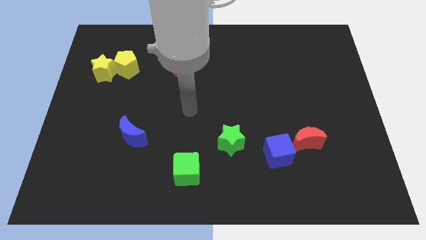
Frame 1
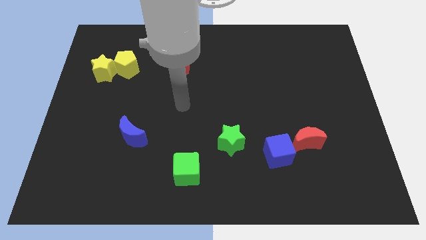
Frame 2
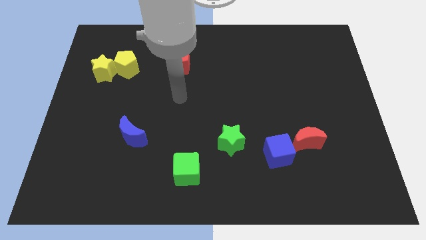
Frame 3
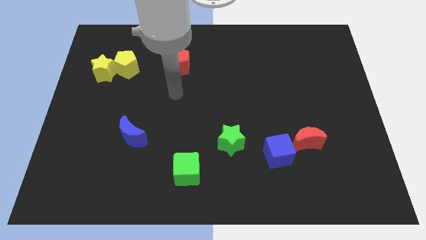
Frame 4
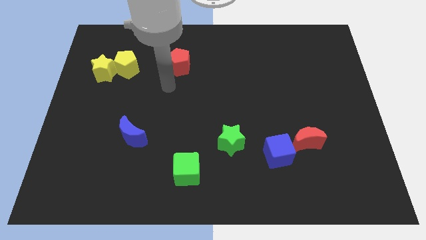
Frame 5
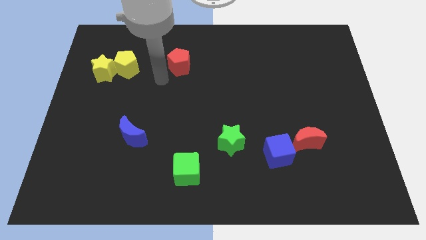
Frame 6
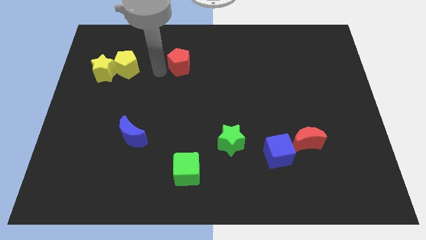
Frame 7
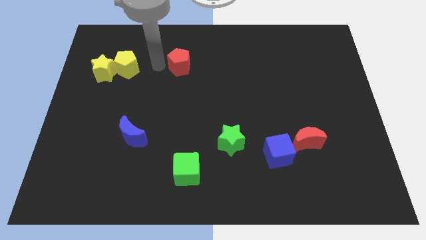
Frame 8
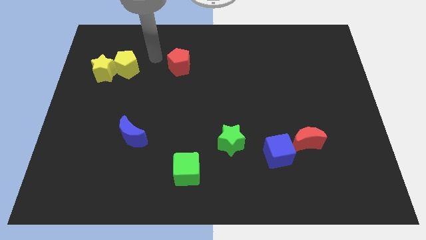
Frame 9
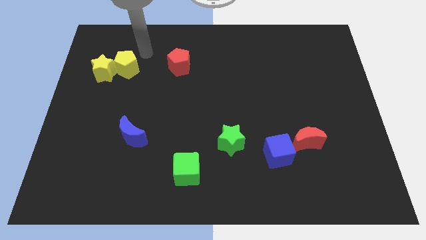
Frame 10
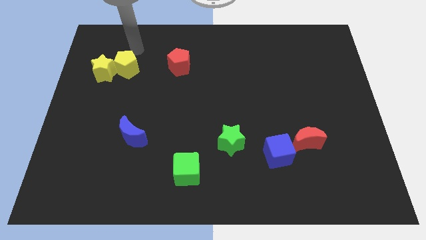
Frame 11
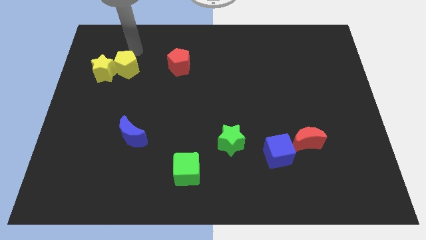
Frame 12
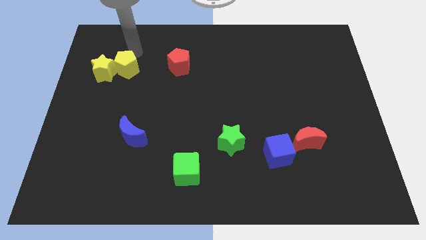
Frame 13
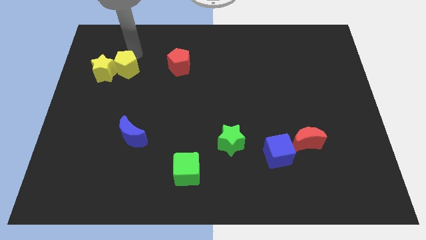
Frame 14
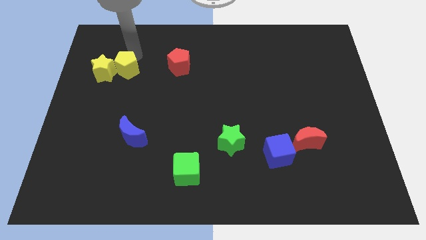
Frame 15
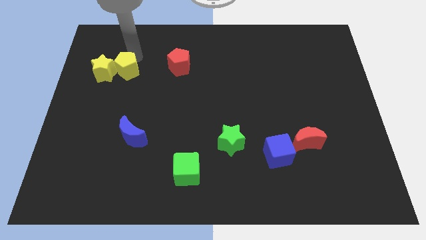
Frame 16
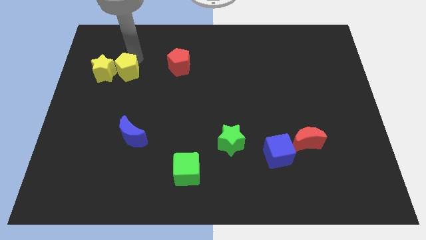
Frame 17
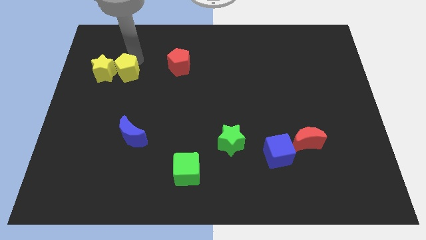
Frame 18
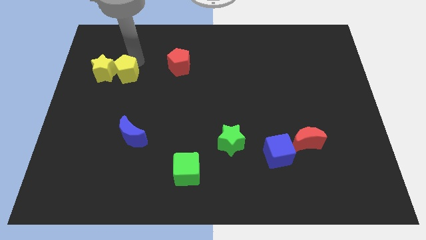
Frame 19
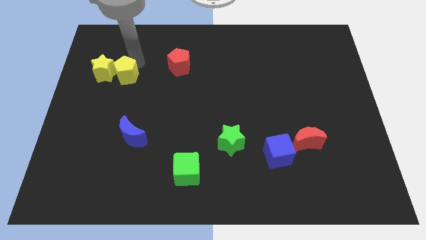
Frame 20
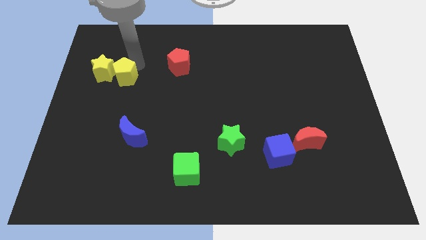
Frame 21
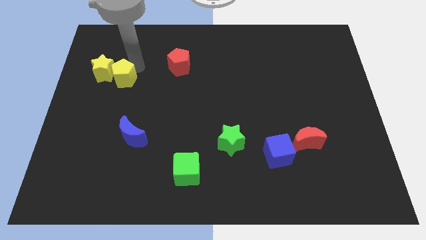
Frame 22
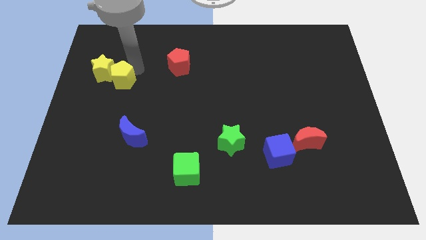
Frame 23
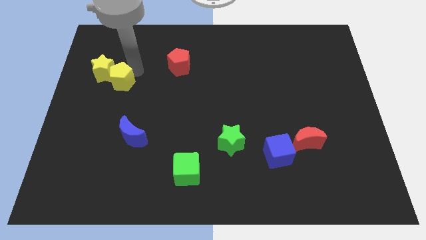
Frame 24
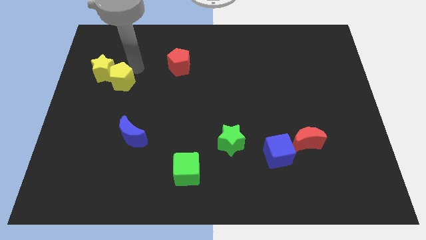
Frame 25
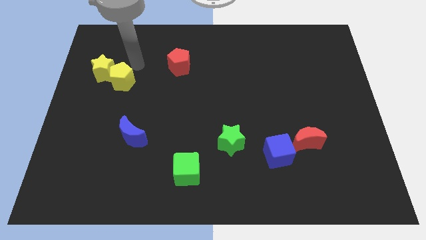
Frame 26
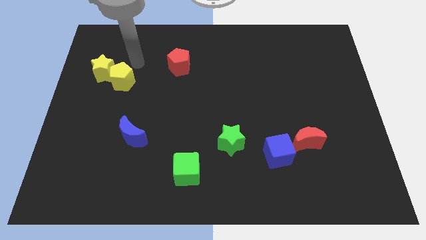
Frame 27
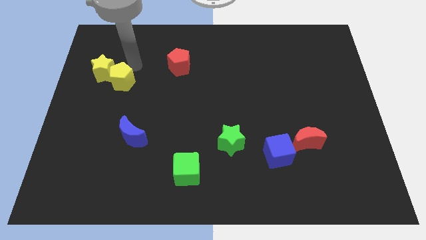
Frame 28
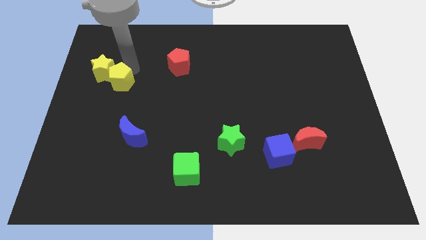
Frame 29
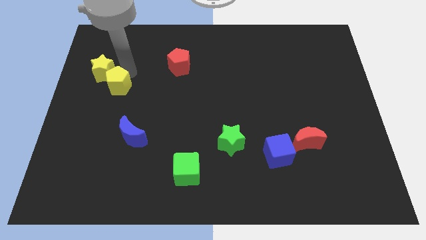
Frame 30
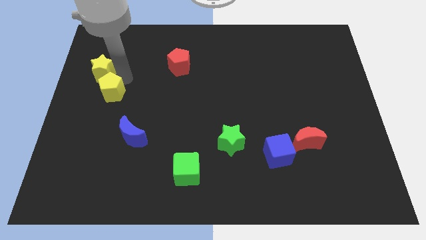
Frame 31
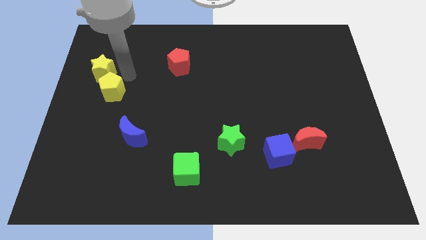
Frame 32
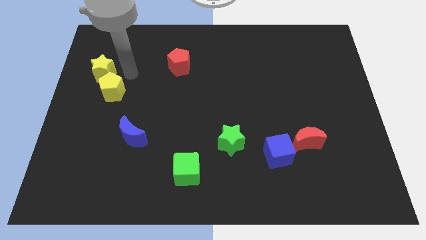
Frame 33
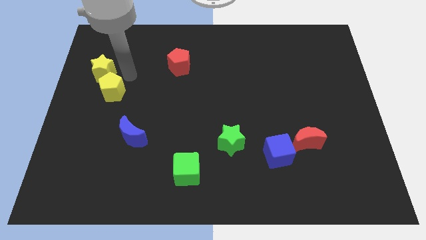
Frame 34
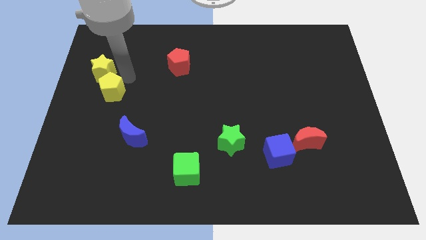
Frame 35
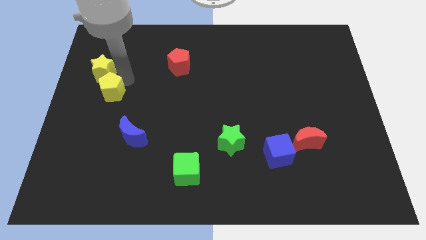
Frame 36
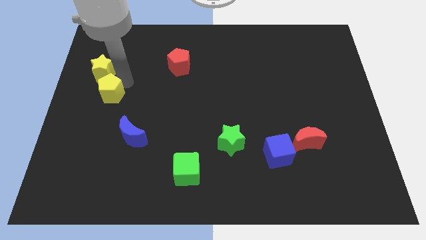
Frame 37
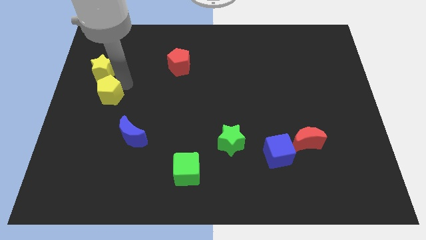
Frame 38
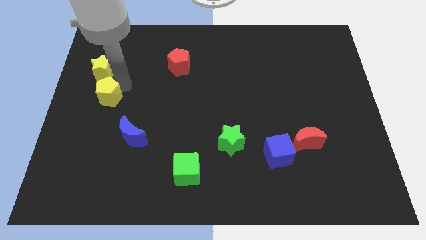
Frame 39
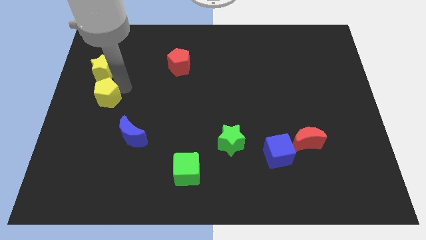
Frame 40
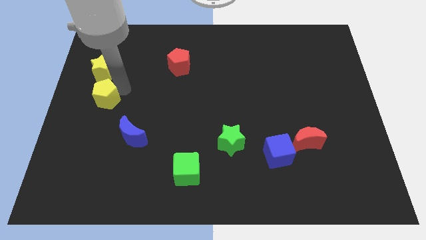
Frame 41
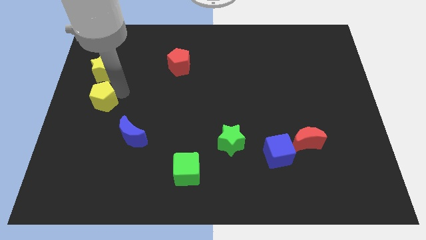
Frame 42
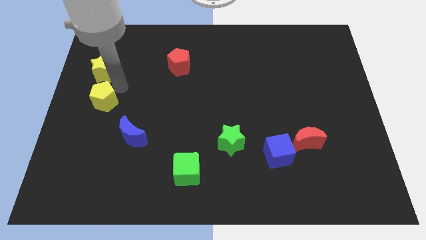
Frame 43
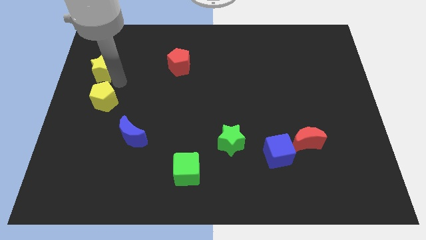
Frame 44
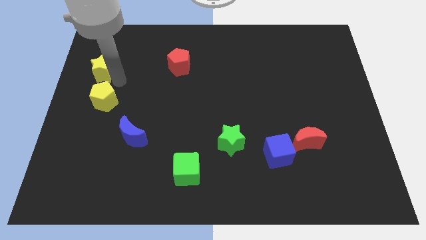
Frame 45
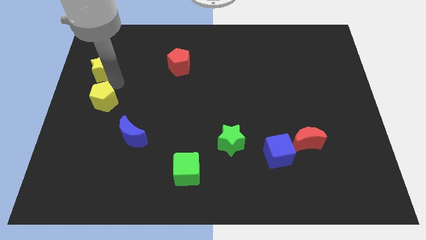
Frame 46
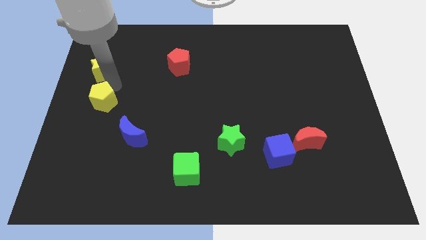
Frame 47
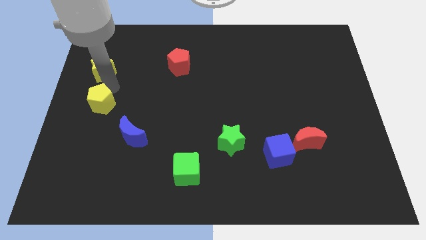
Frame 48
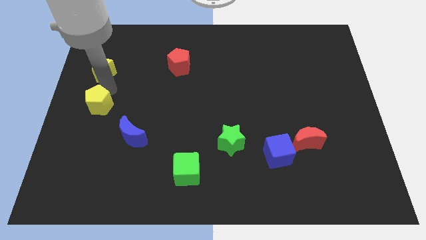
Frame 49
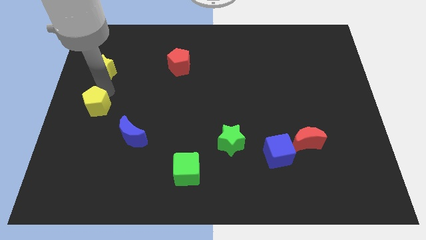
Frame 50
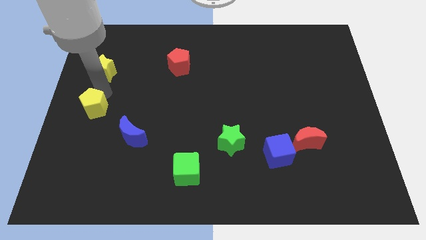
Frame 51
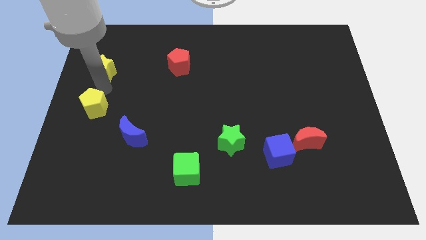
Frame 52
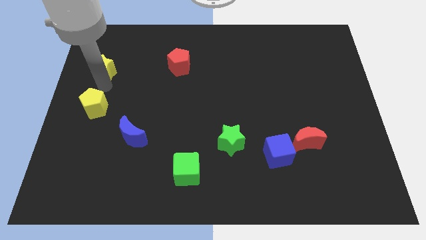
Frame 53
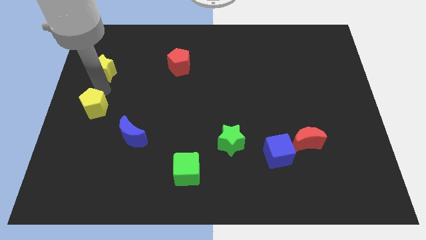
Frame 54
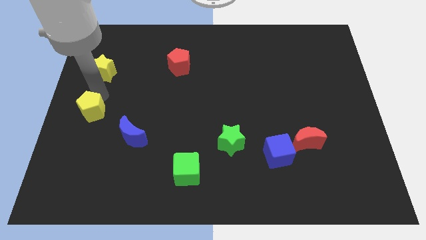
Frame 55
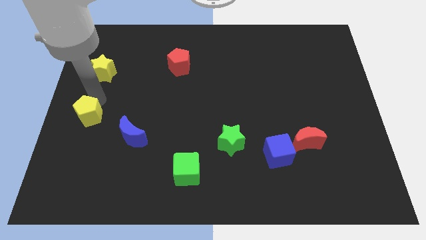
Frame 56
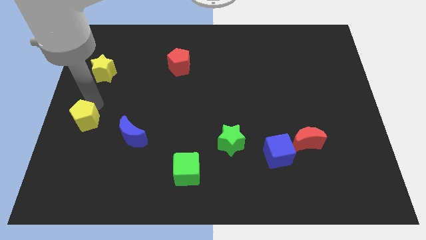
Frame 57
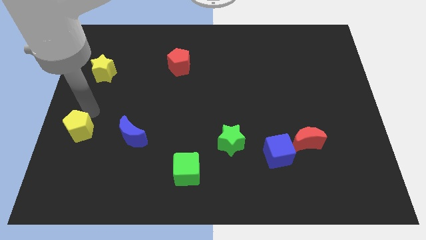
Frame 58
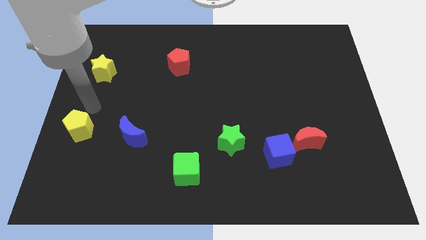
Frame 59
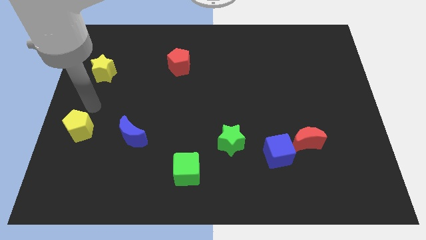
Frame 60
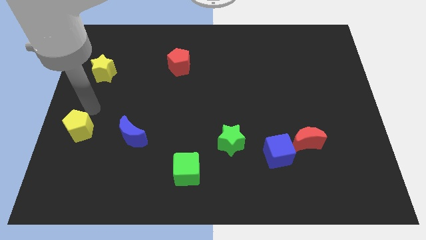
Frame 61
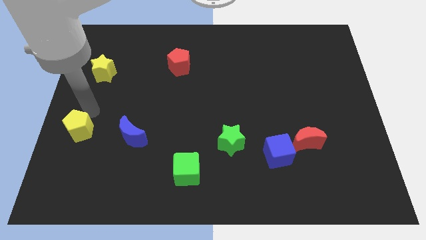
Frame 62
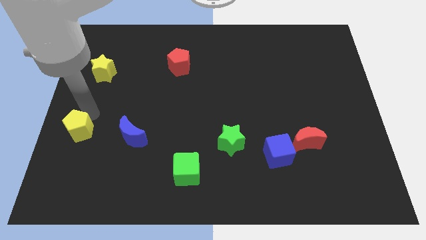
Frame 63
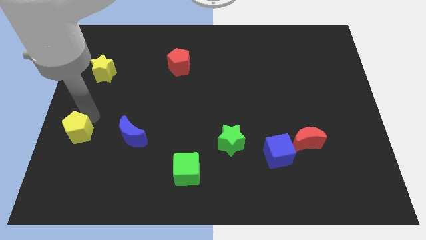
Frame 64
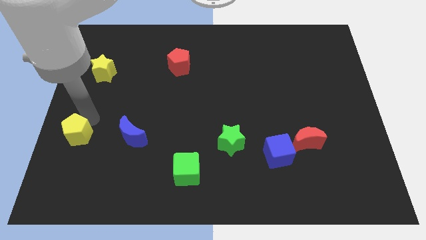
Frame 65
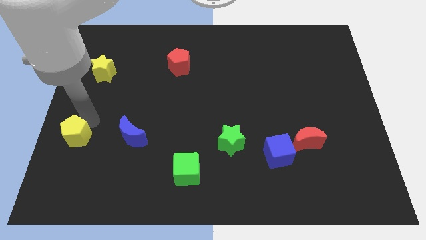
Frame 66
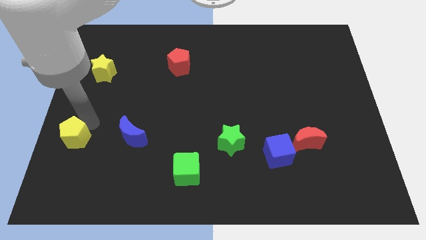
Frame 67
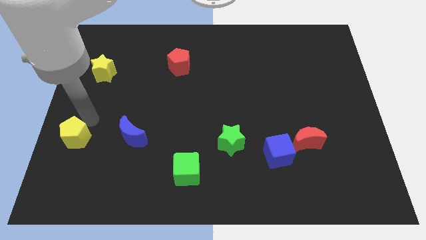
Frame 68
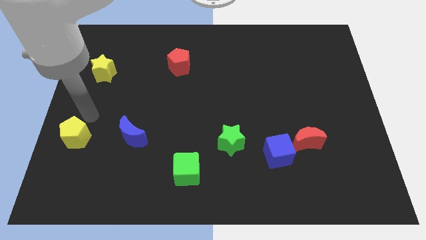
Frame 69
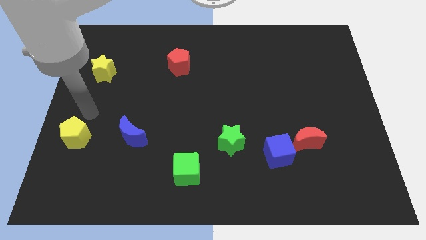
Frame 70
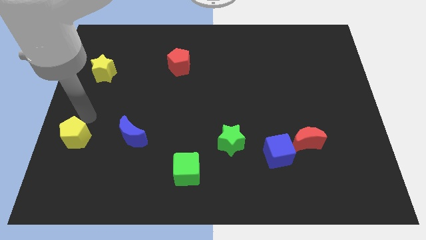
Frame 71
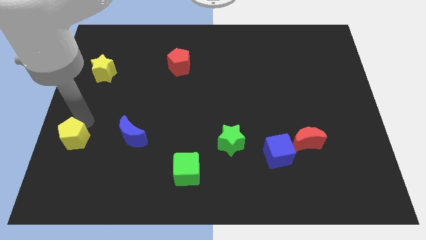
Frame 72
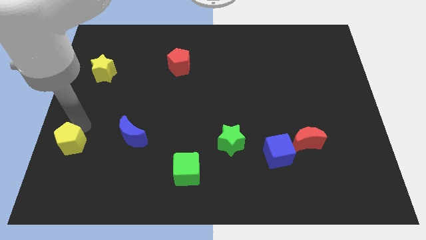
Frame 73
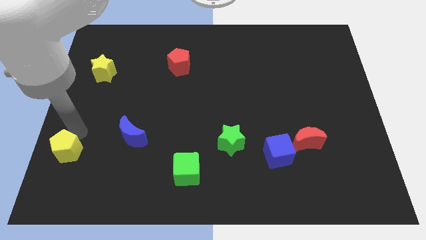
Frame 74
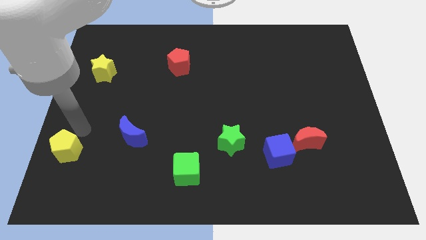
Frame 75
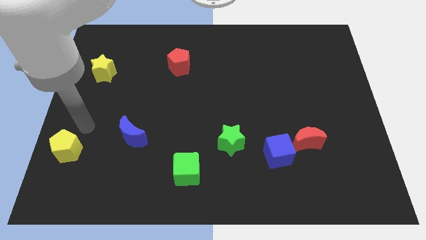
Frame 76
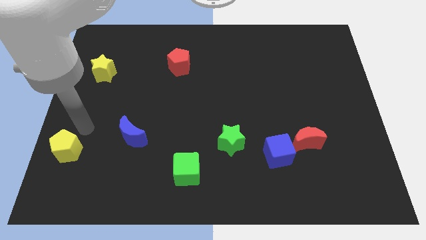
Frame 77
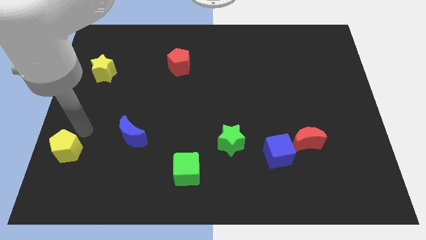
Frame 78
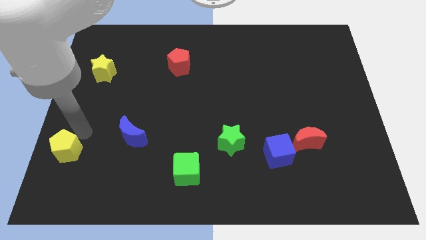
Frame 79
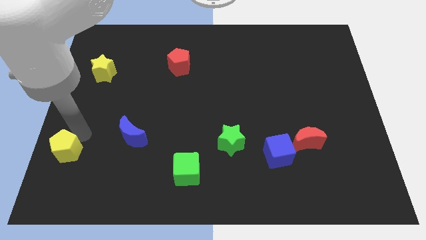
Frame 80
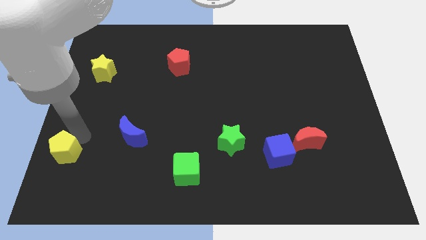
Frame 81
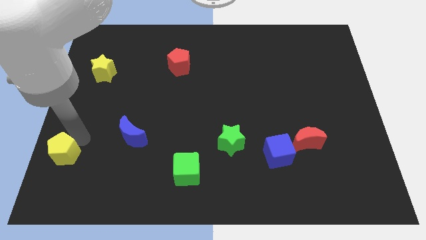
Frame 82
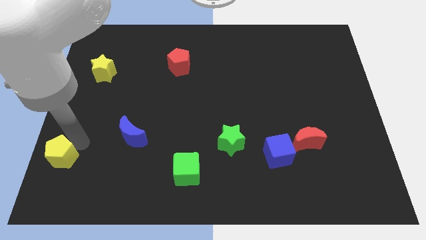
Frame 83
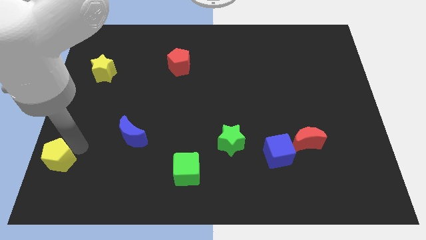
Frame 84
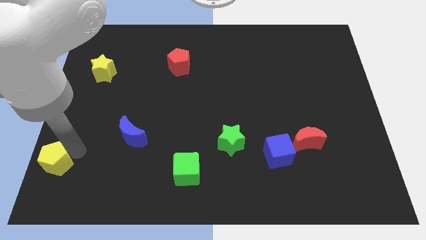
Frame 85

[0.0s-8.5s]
put the yellow pentagon to the lower left corner
